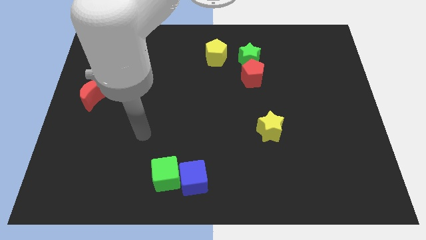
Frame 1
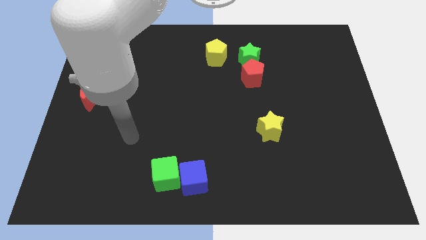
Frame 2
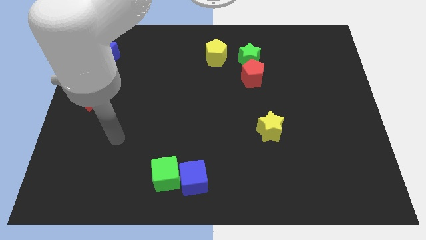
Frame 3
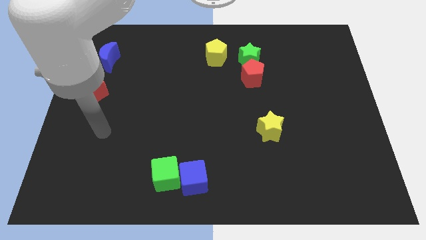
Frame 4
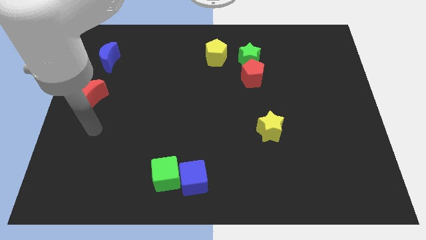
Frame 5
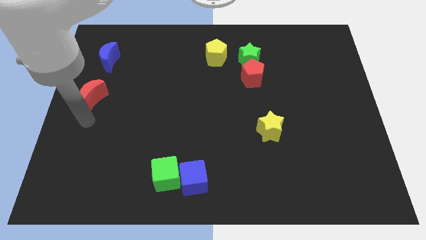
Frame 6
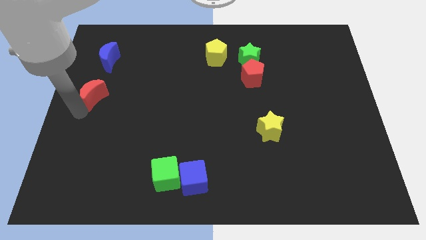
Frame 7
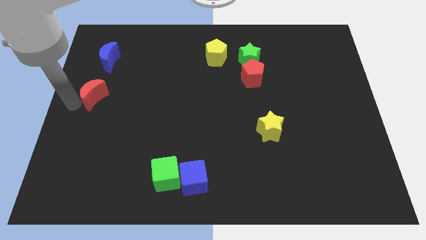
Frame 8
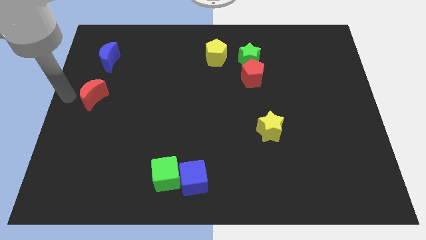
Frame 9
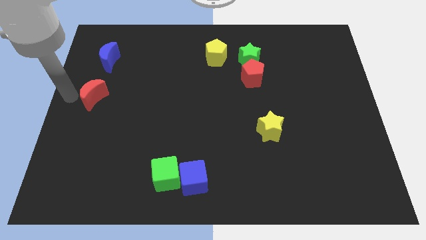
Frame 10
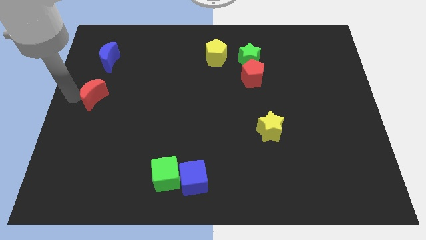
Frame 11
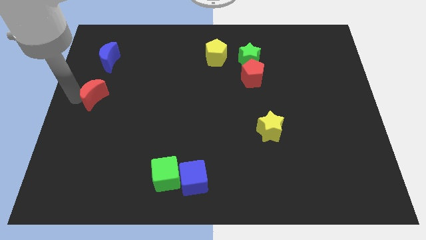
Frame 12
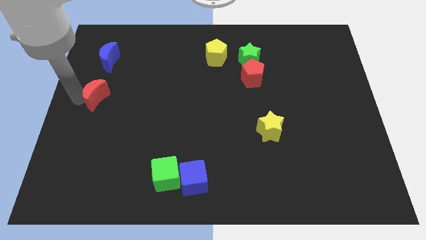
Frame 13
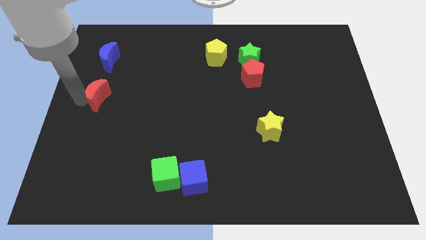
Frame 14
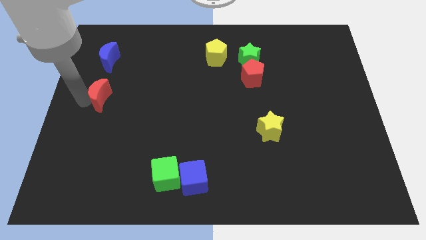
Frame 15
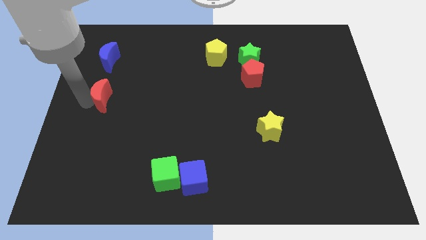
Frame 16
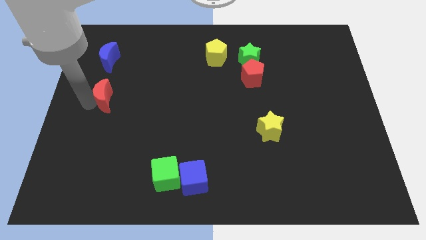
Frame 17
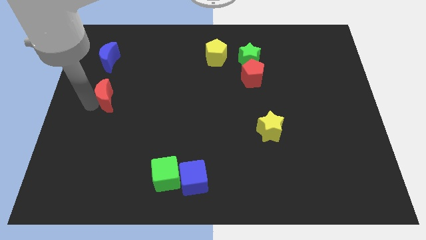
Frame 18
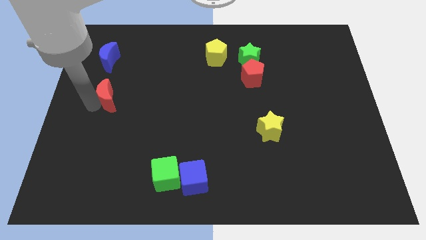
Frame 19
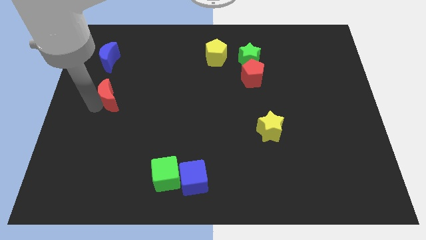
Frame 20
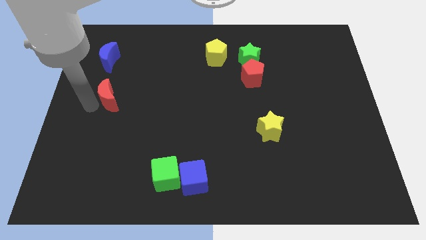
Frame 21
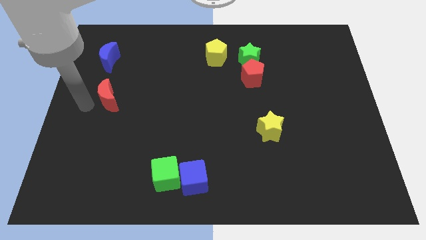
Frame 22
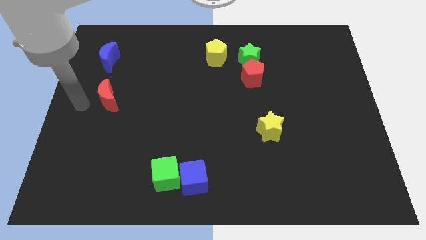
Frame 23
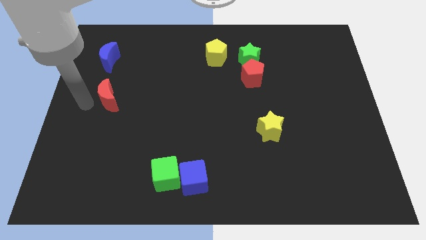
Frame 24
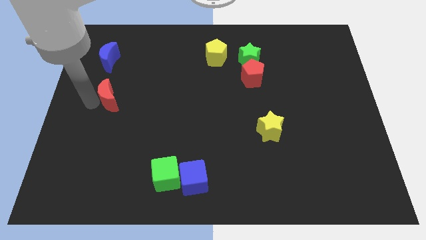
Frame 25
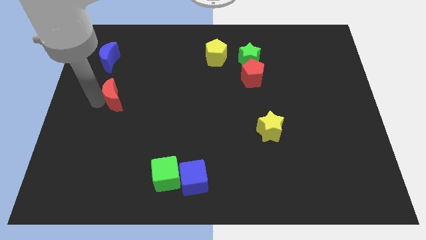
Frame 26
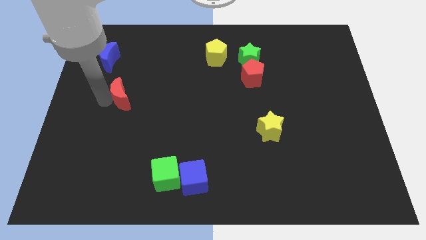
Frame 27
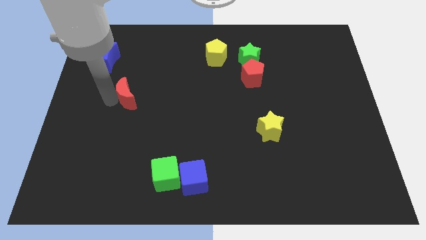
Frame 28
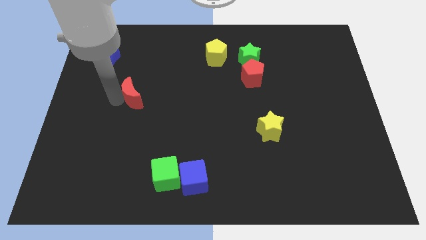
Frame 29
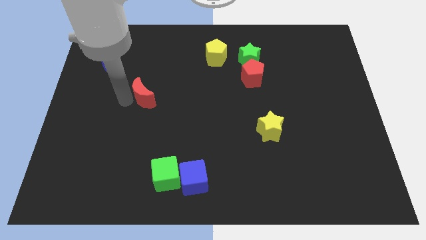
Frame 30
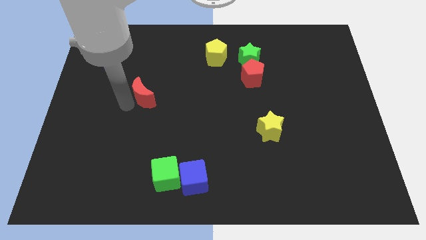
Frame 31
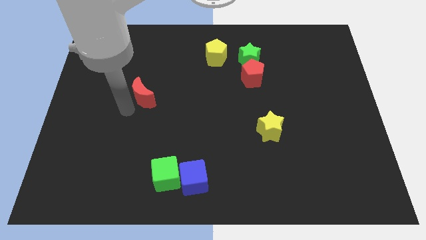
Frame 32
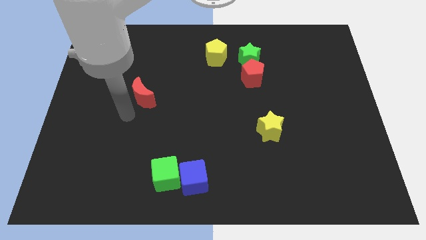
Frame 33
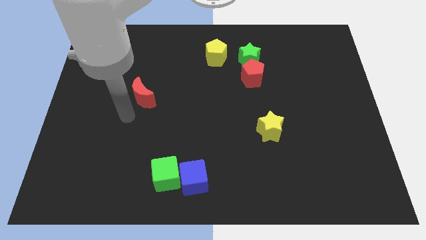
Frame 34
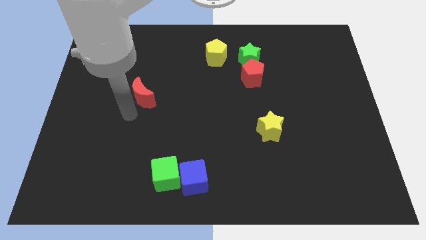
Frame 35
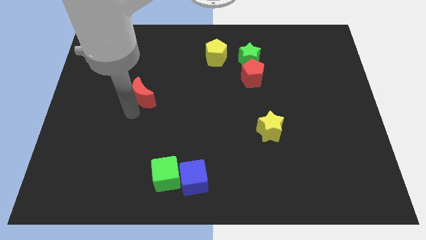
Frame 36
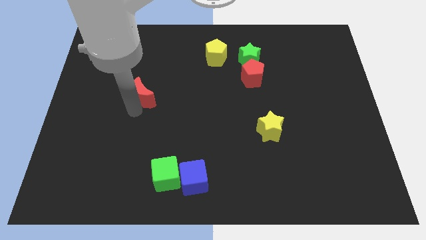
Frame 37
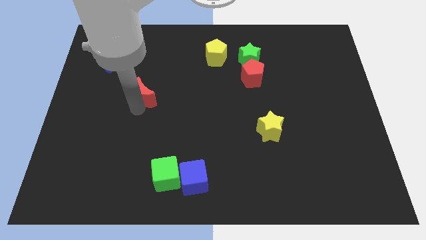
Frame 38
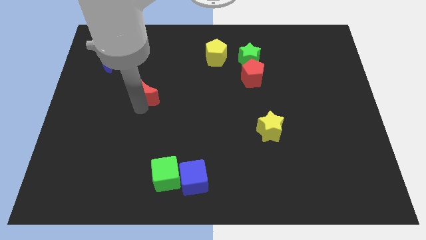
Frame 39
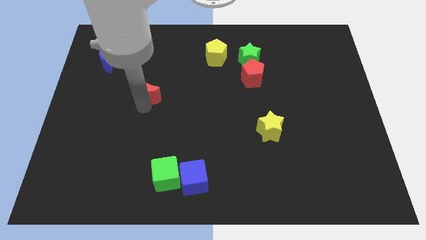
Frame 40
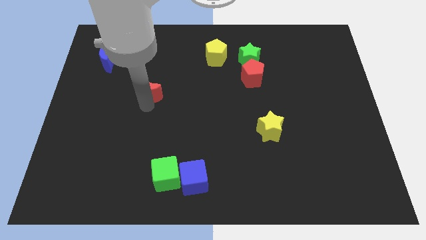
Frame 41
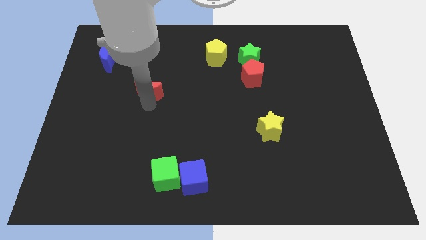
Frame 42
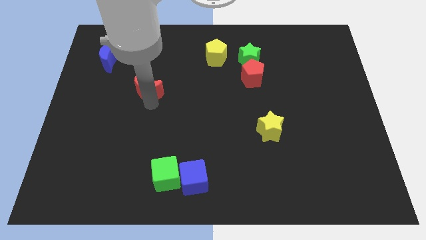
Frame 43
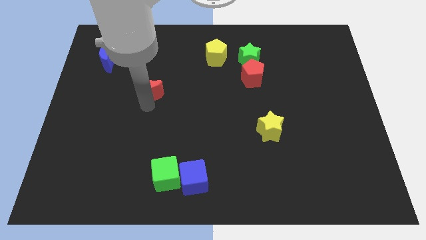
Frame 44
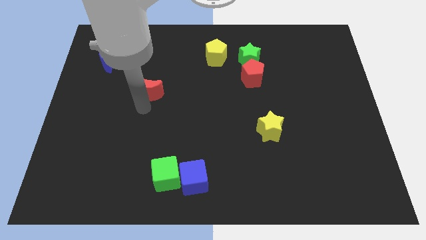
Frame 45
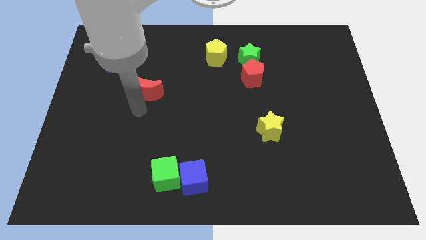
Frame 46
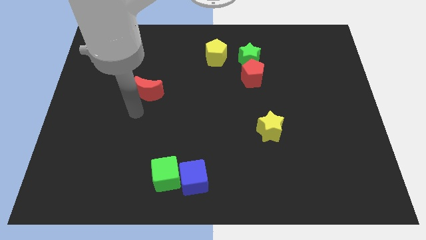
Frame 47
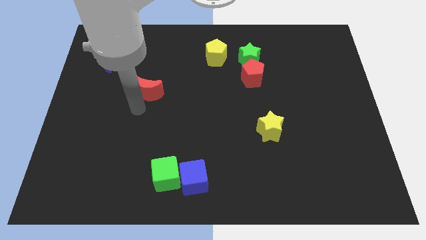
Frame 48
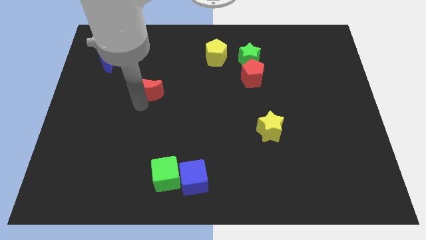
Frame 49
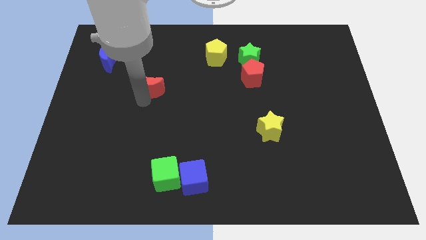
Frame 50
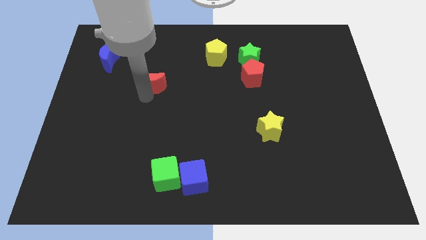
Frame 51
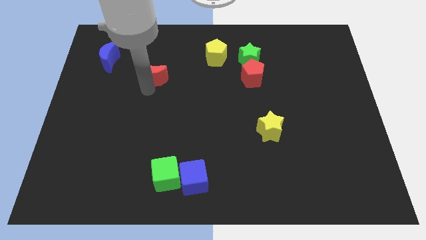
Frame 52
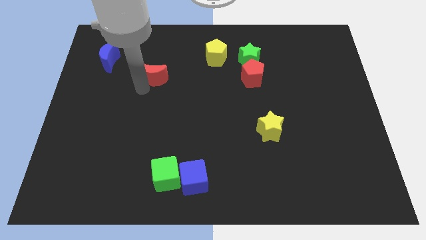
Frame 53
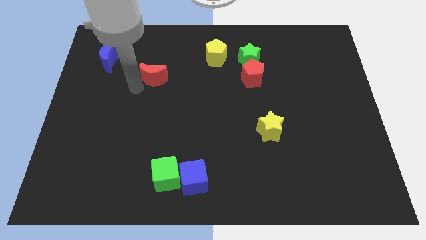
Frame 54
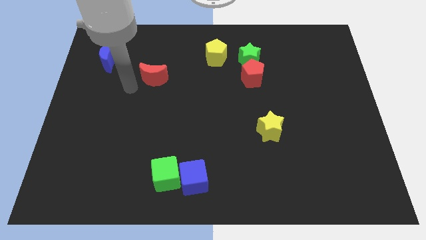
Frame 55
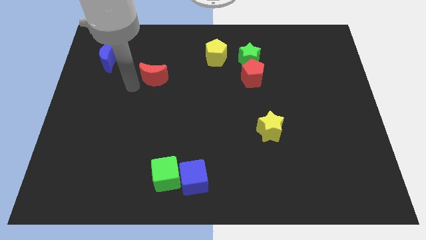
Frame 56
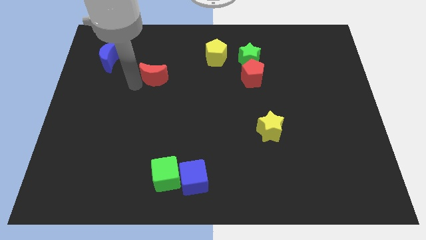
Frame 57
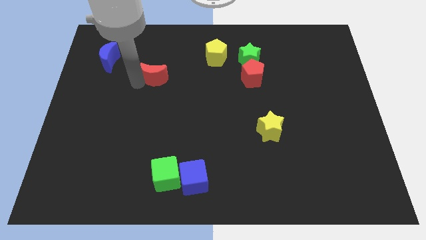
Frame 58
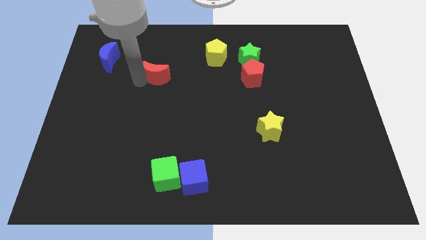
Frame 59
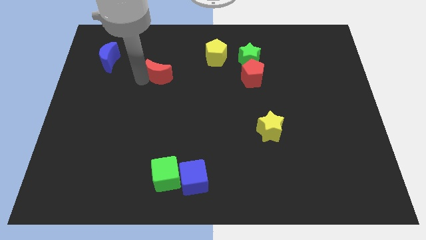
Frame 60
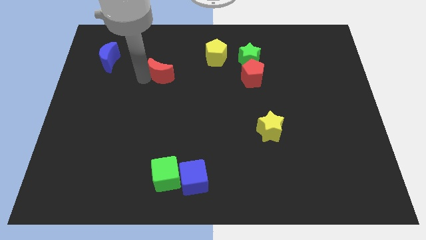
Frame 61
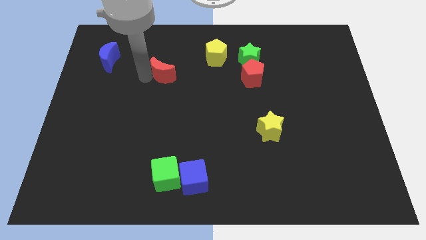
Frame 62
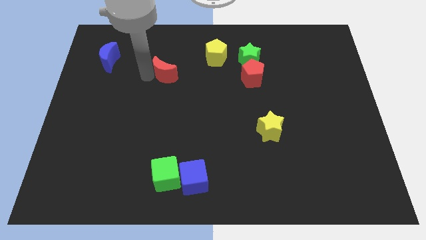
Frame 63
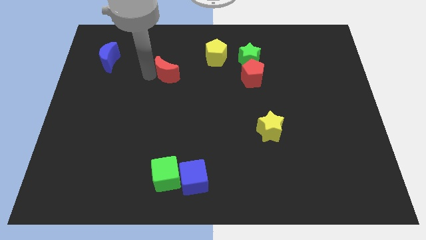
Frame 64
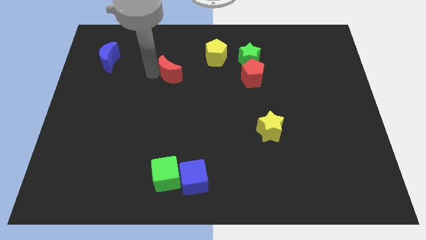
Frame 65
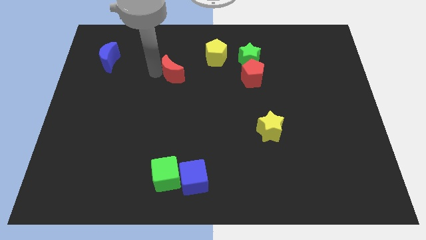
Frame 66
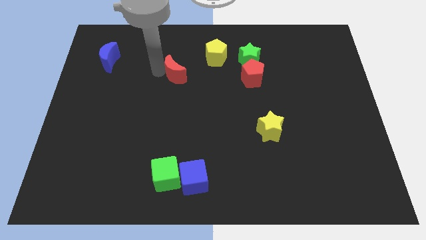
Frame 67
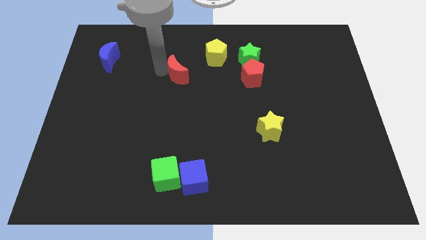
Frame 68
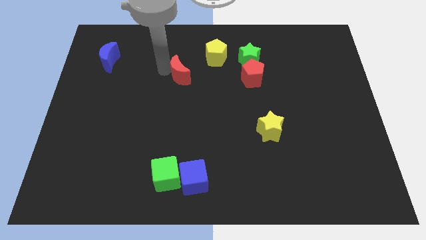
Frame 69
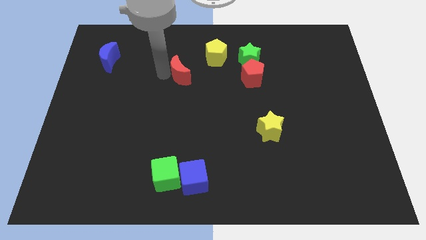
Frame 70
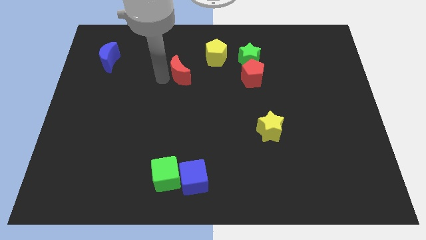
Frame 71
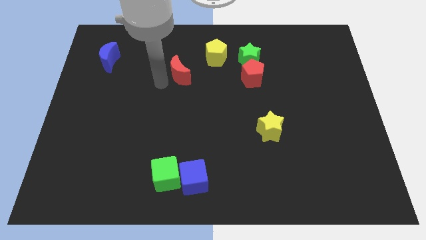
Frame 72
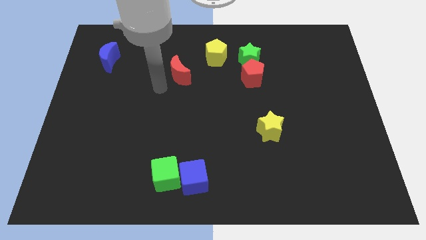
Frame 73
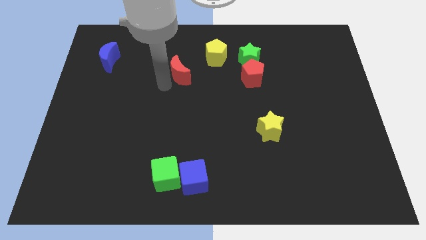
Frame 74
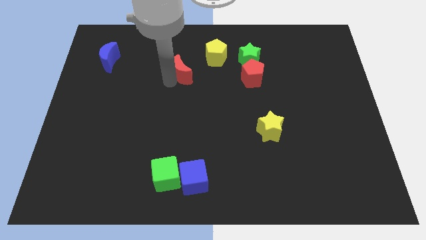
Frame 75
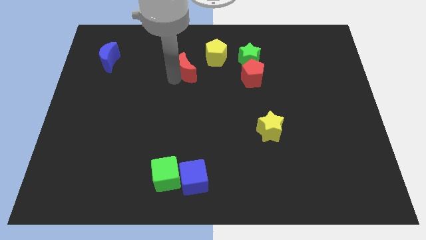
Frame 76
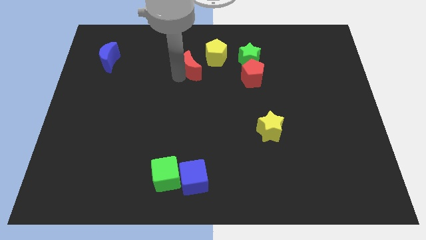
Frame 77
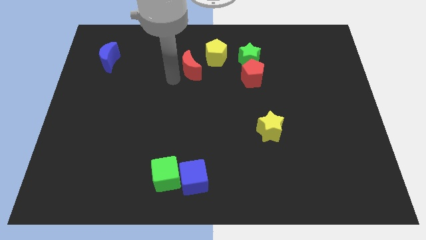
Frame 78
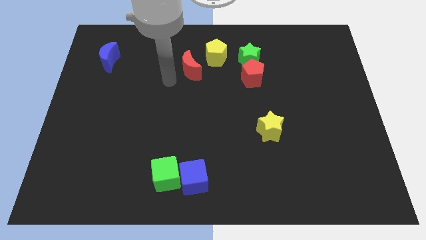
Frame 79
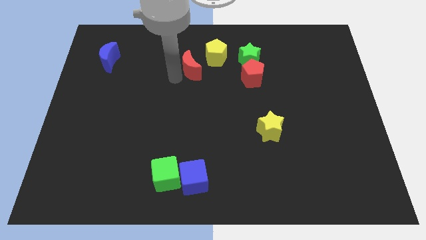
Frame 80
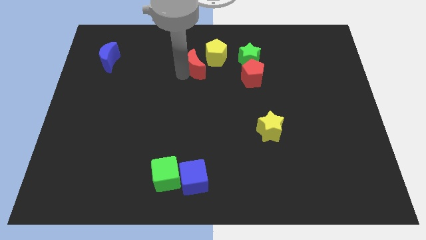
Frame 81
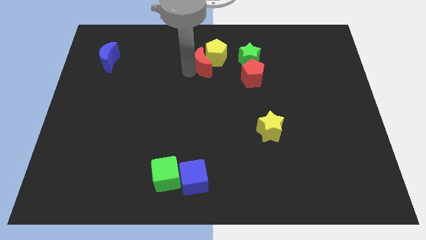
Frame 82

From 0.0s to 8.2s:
slide the red moon to the yellow pentagon
